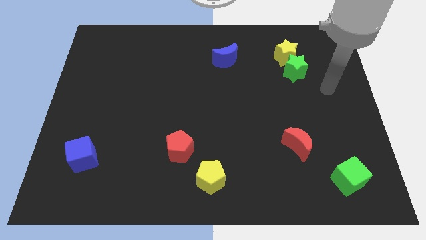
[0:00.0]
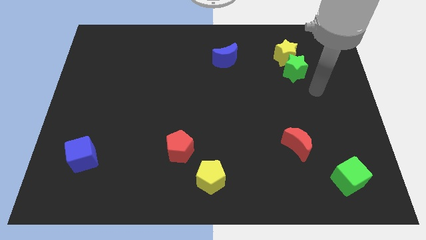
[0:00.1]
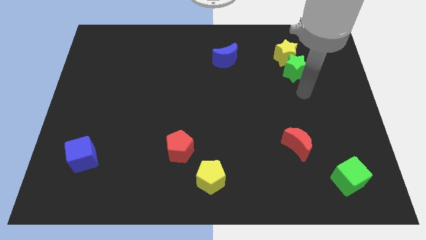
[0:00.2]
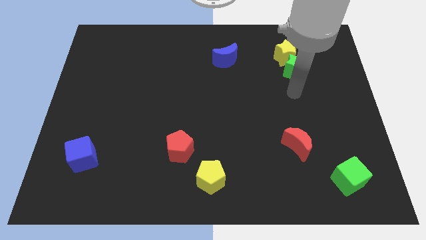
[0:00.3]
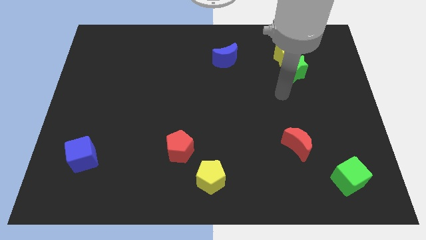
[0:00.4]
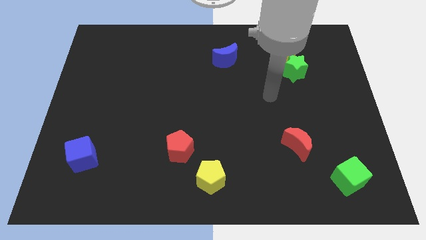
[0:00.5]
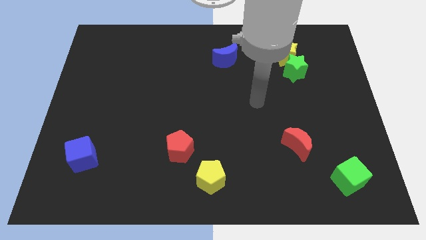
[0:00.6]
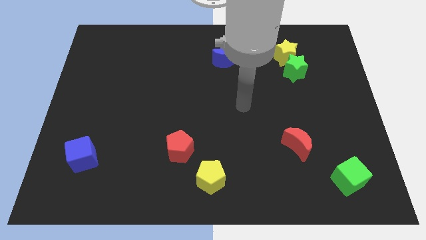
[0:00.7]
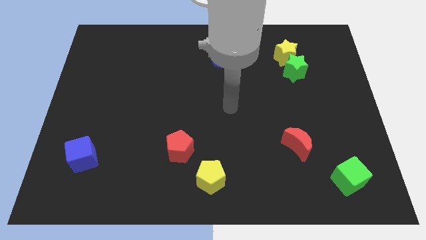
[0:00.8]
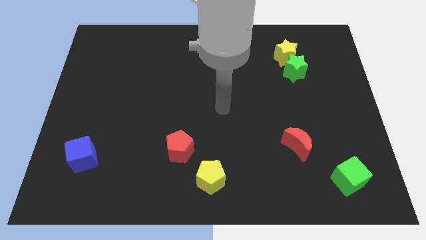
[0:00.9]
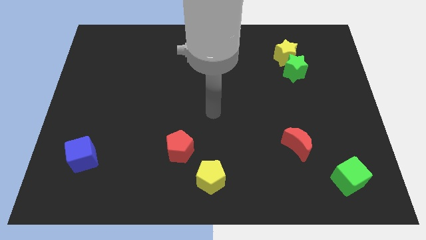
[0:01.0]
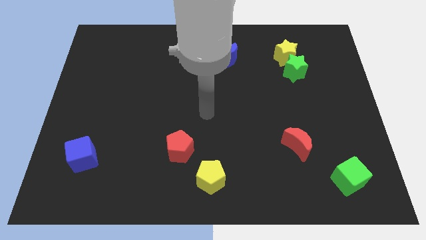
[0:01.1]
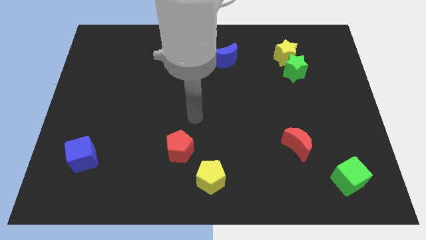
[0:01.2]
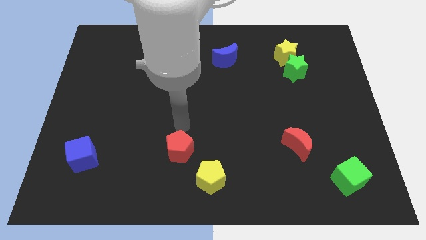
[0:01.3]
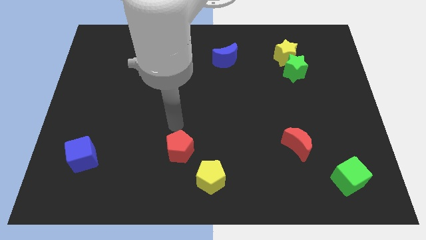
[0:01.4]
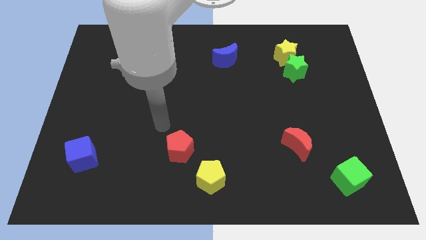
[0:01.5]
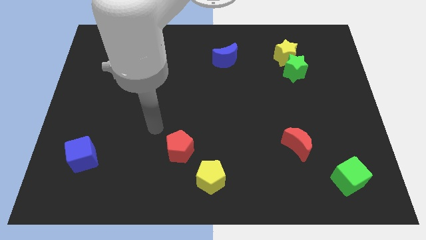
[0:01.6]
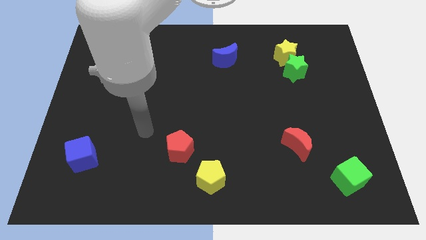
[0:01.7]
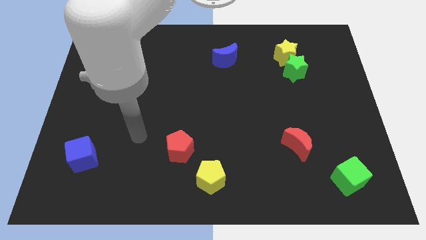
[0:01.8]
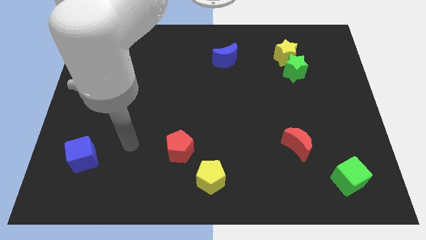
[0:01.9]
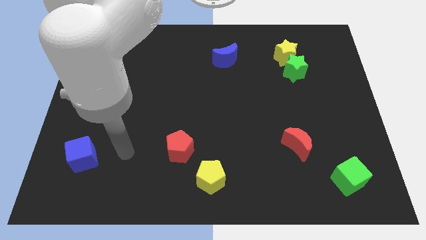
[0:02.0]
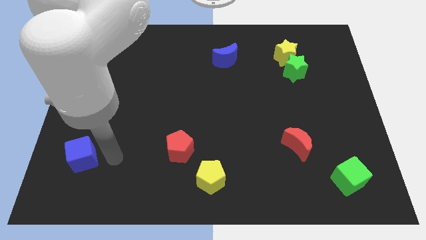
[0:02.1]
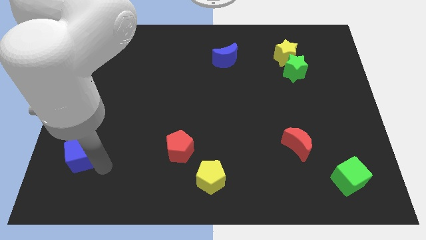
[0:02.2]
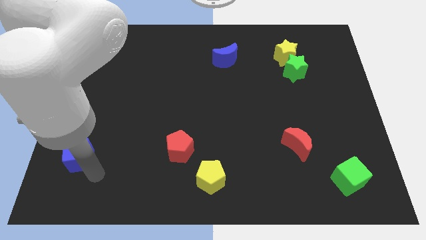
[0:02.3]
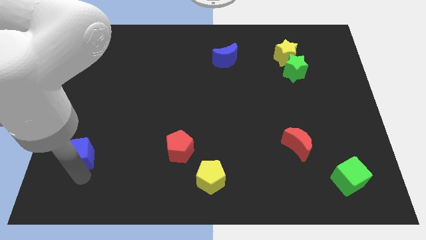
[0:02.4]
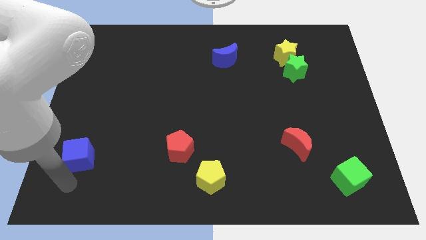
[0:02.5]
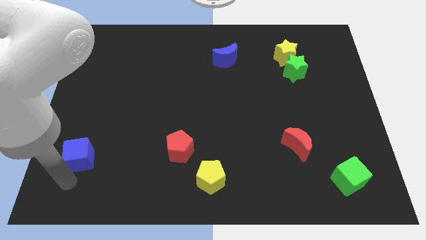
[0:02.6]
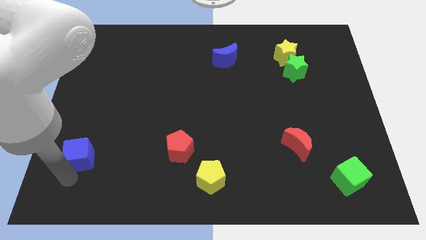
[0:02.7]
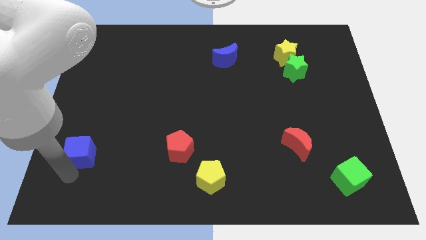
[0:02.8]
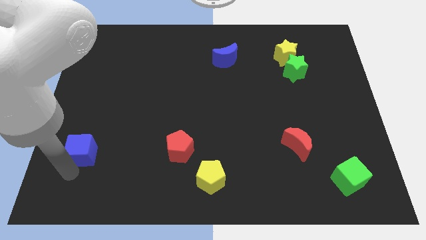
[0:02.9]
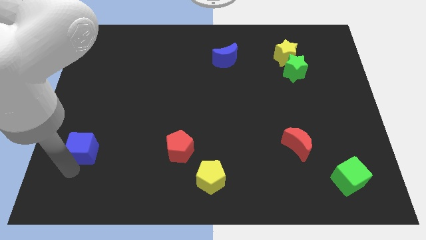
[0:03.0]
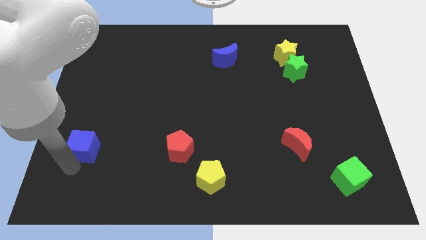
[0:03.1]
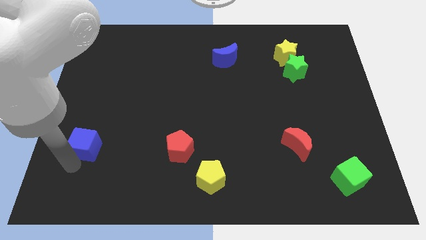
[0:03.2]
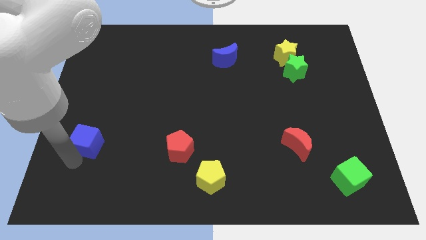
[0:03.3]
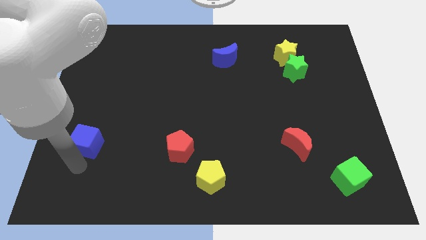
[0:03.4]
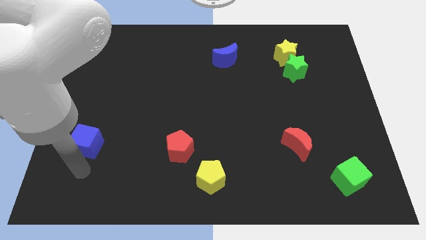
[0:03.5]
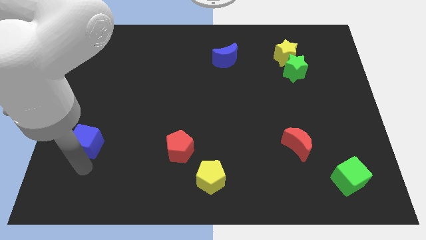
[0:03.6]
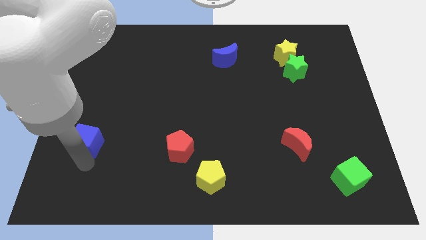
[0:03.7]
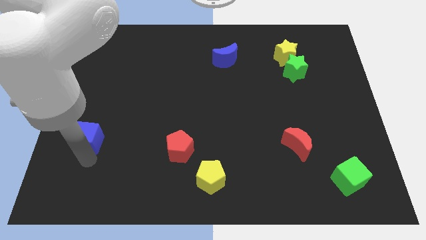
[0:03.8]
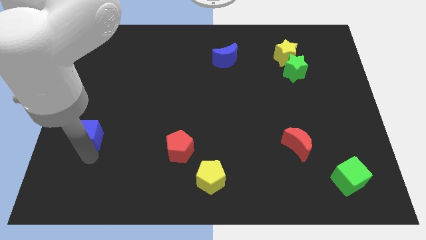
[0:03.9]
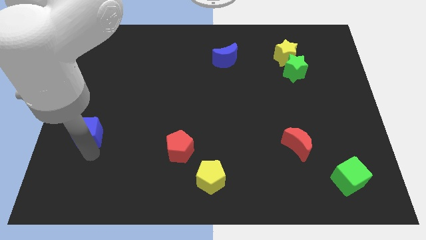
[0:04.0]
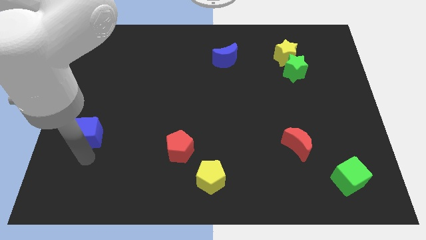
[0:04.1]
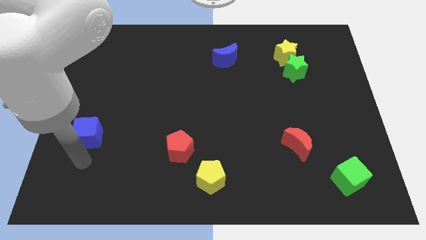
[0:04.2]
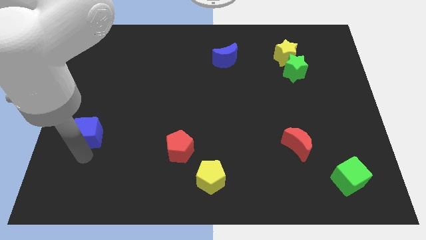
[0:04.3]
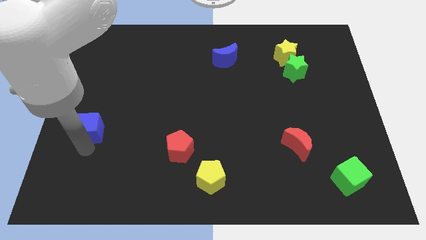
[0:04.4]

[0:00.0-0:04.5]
push the blue cube up a bit

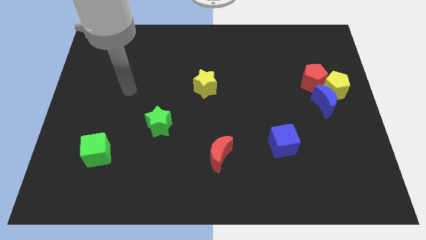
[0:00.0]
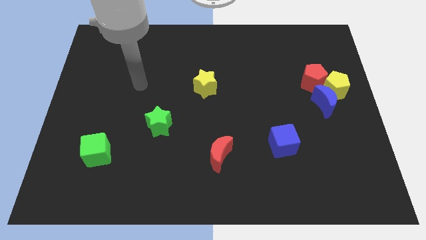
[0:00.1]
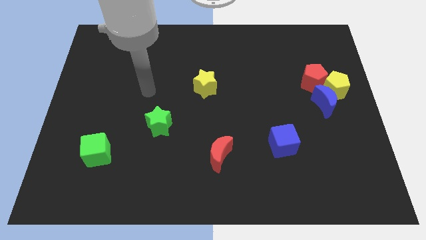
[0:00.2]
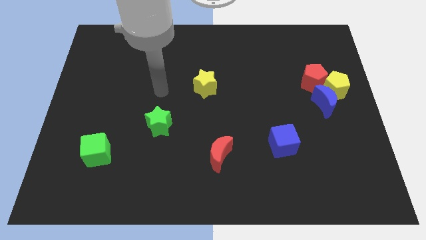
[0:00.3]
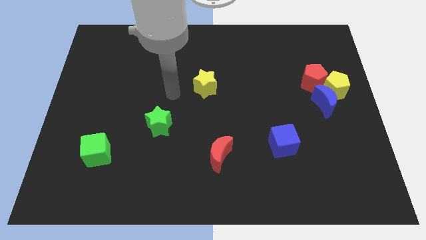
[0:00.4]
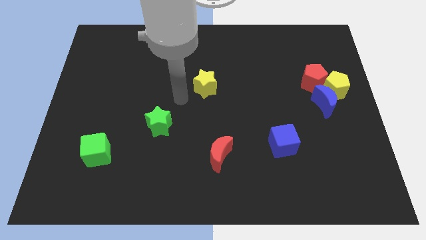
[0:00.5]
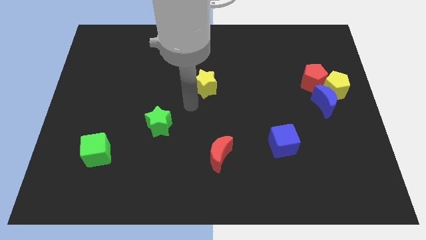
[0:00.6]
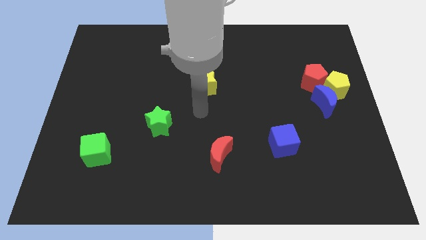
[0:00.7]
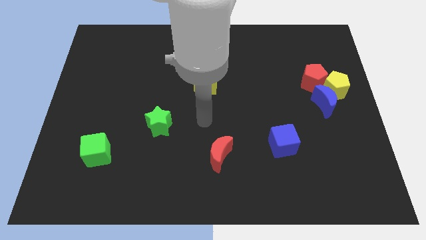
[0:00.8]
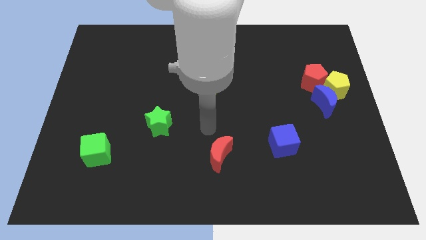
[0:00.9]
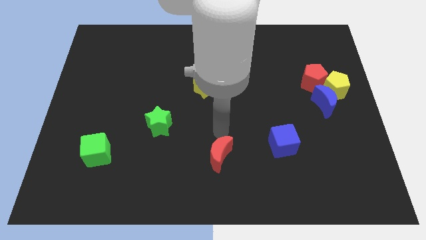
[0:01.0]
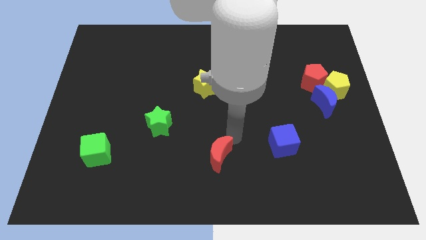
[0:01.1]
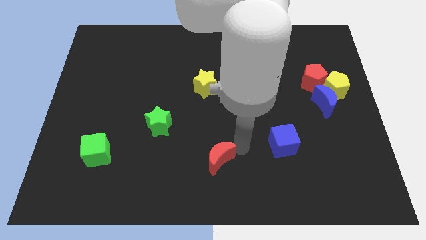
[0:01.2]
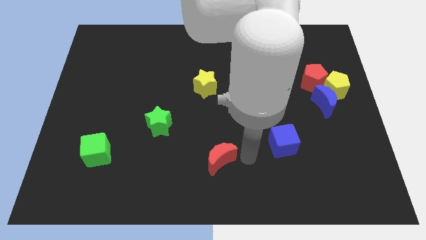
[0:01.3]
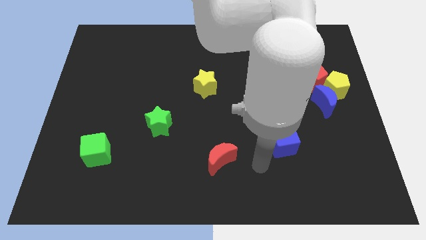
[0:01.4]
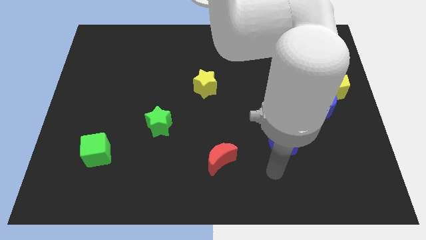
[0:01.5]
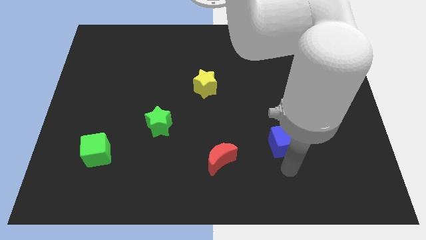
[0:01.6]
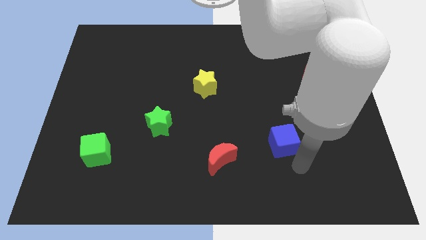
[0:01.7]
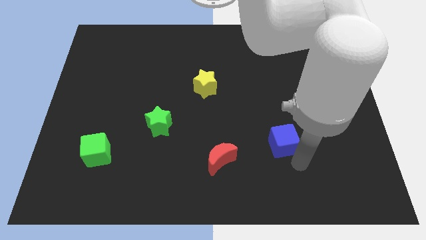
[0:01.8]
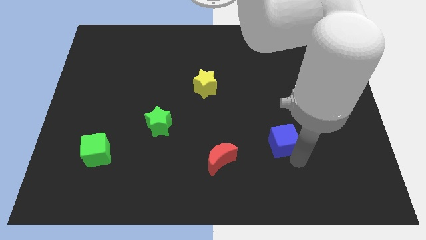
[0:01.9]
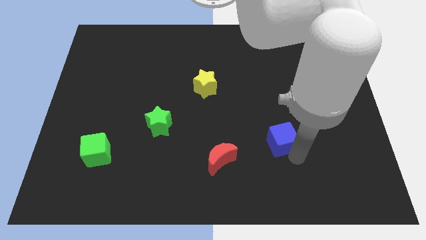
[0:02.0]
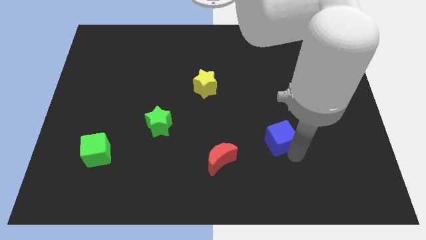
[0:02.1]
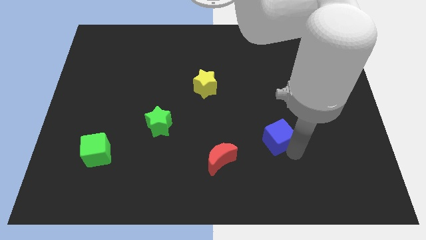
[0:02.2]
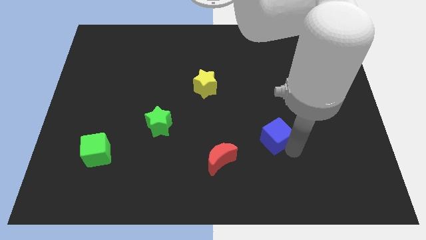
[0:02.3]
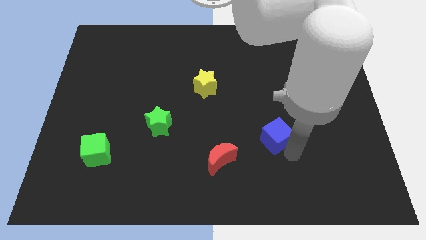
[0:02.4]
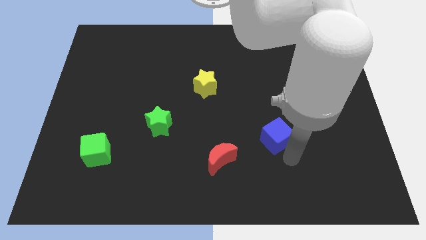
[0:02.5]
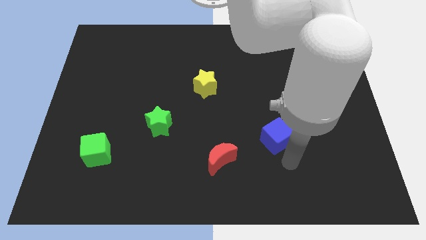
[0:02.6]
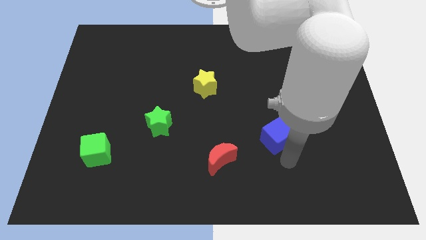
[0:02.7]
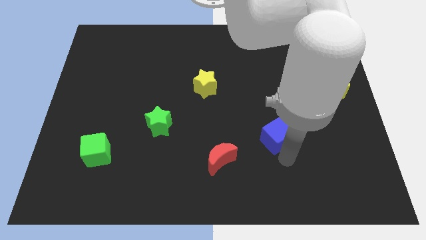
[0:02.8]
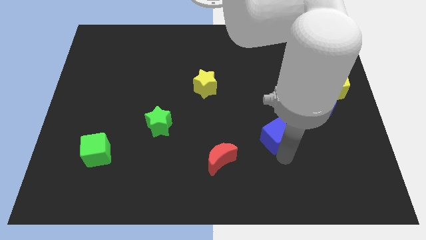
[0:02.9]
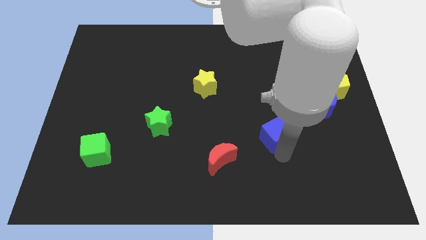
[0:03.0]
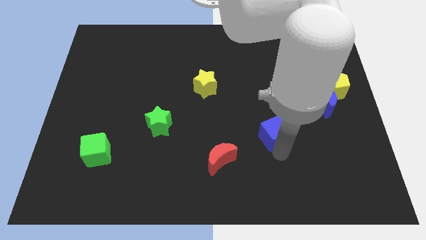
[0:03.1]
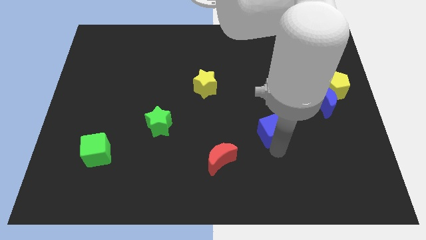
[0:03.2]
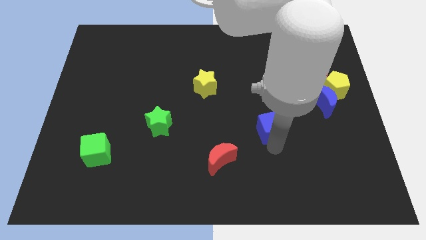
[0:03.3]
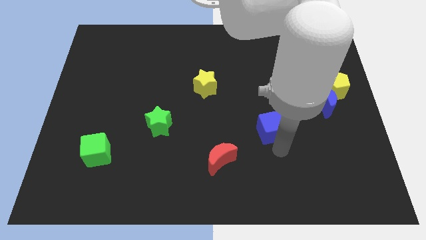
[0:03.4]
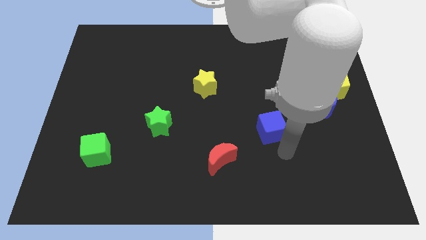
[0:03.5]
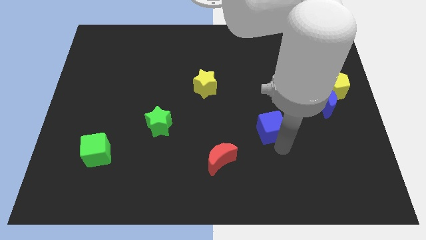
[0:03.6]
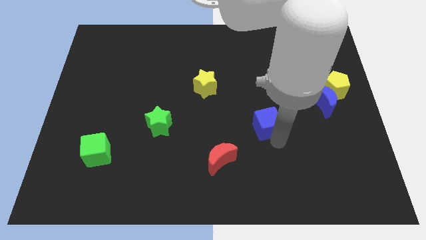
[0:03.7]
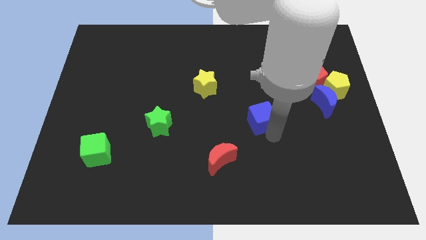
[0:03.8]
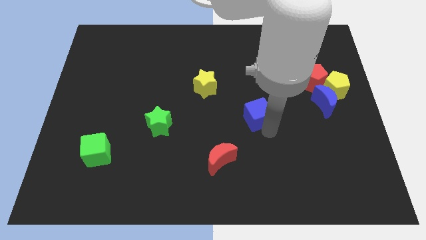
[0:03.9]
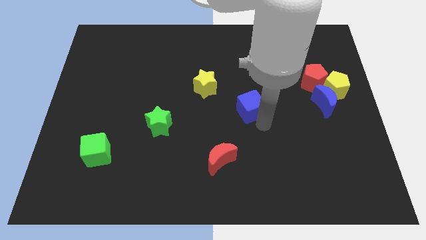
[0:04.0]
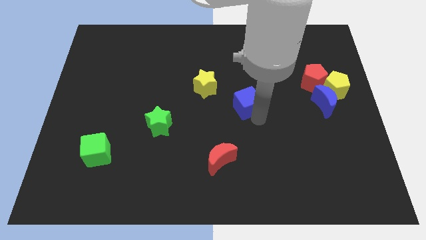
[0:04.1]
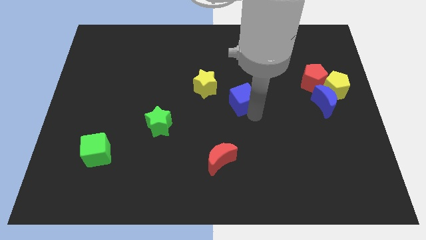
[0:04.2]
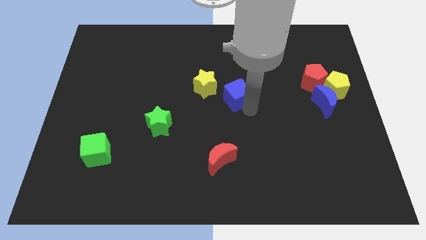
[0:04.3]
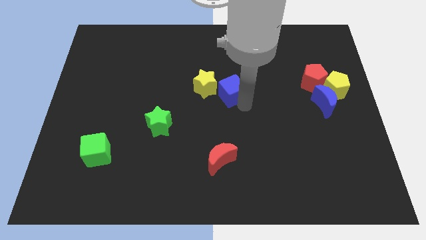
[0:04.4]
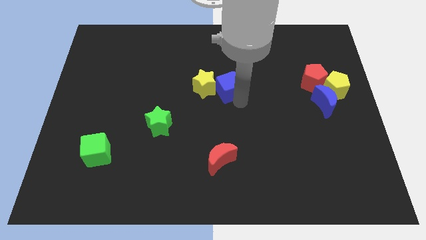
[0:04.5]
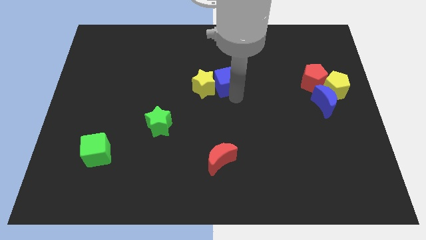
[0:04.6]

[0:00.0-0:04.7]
push the blue cube upwards and left diagonally
